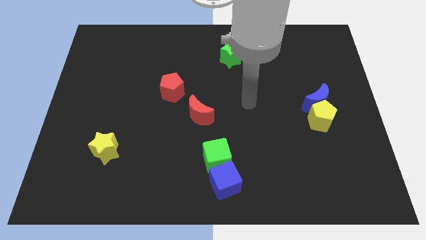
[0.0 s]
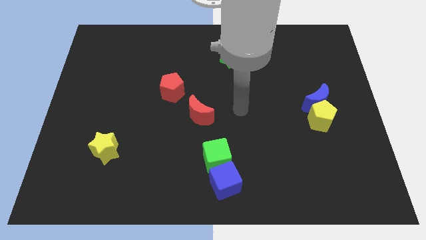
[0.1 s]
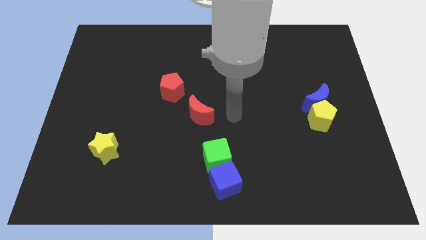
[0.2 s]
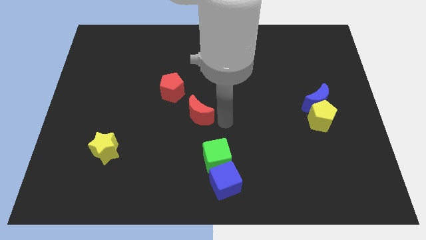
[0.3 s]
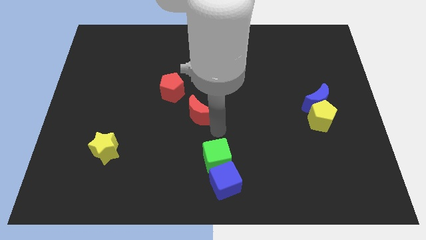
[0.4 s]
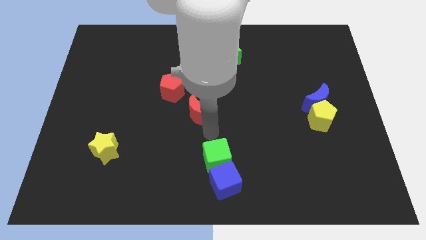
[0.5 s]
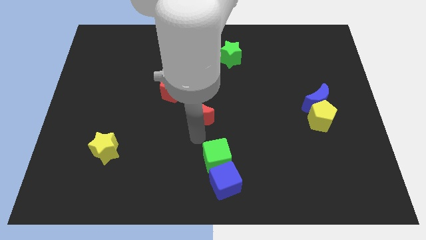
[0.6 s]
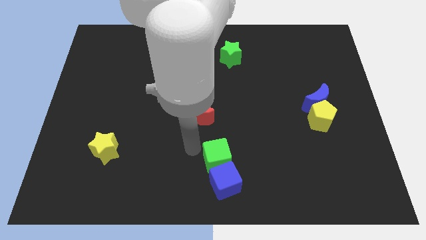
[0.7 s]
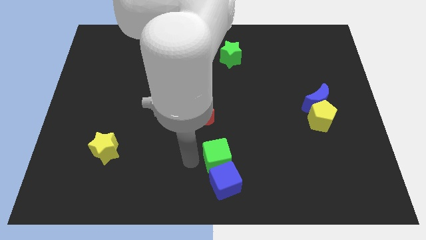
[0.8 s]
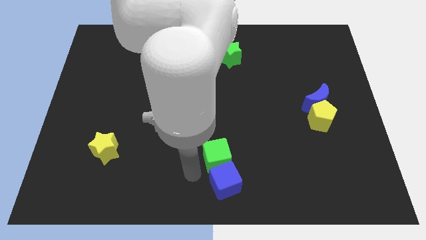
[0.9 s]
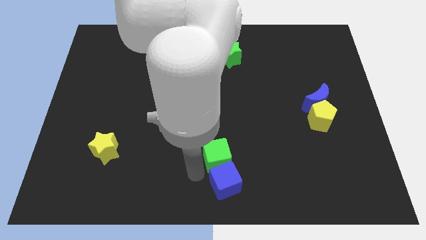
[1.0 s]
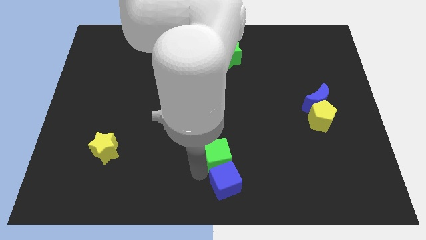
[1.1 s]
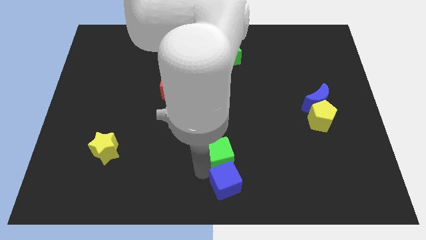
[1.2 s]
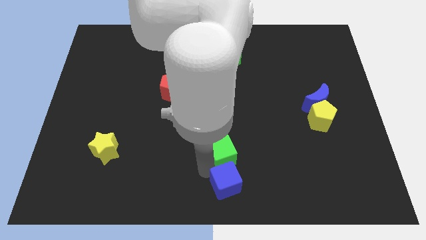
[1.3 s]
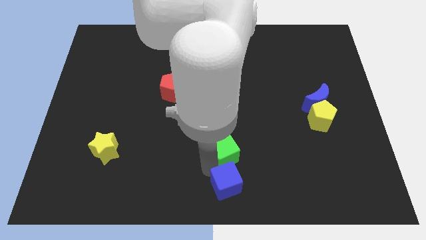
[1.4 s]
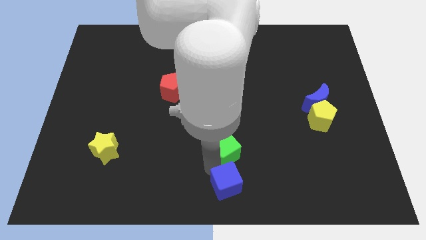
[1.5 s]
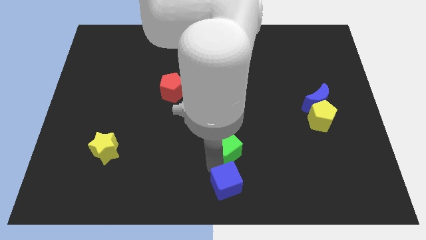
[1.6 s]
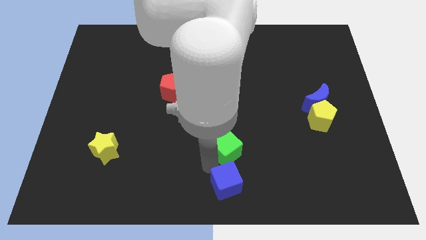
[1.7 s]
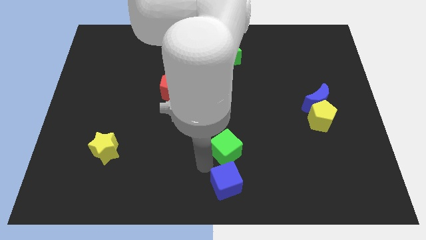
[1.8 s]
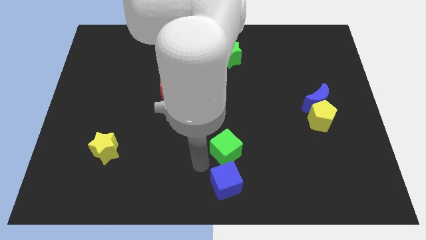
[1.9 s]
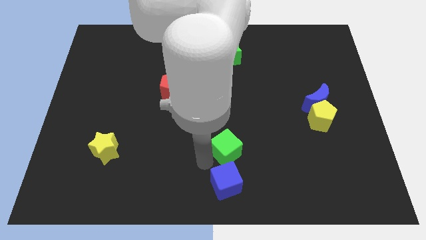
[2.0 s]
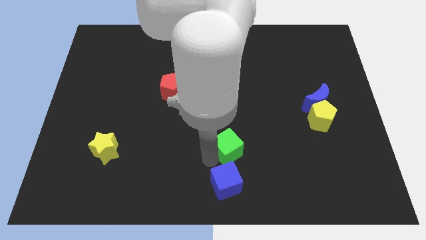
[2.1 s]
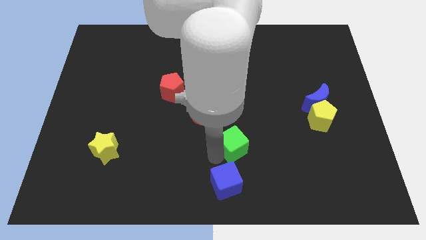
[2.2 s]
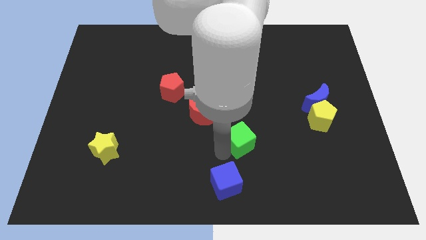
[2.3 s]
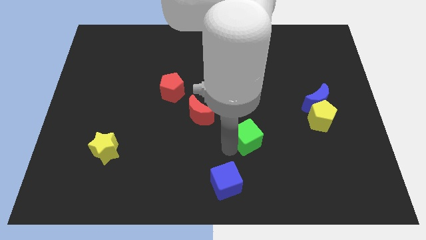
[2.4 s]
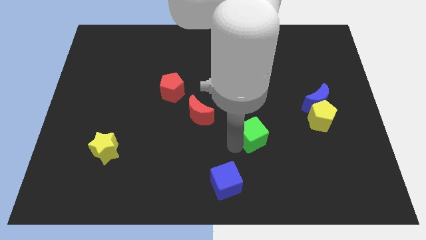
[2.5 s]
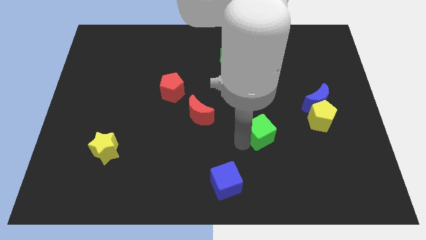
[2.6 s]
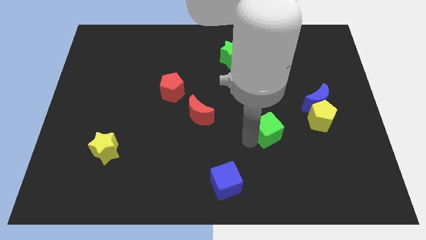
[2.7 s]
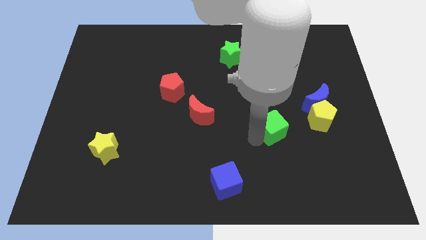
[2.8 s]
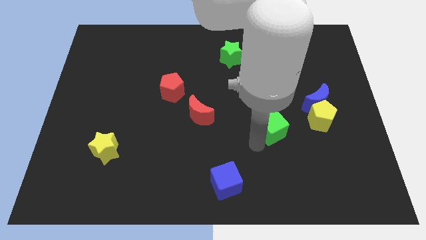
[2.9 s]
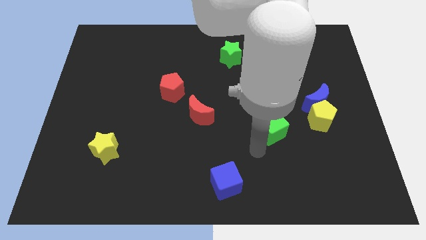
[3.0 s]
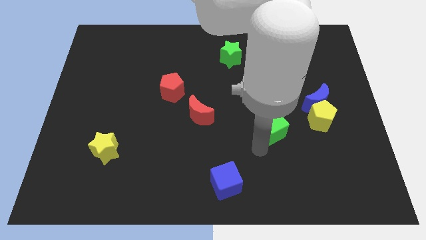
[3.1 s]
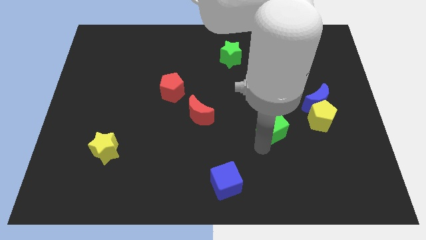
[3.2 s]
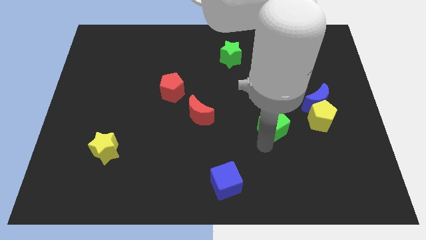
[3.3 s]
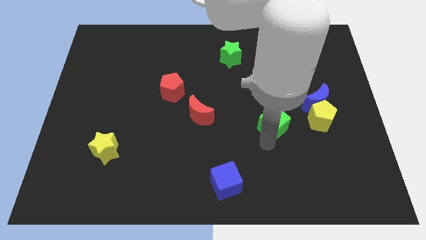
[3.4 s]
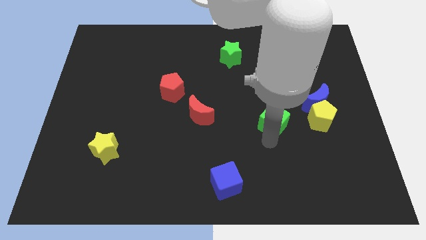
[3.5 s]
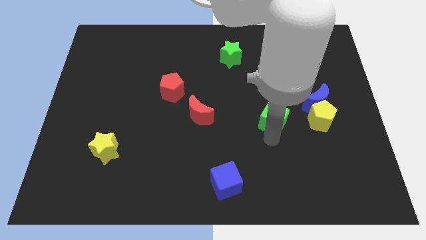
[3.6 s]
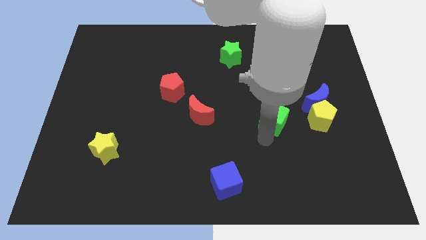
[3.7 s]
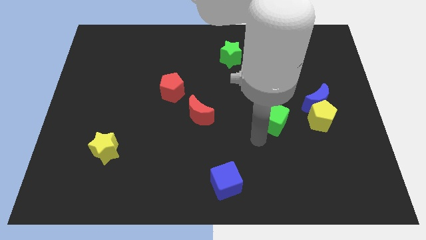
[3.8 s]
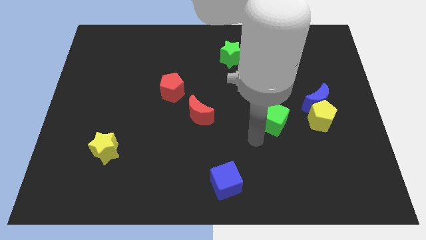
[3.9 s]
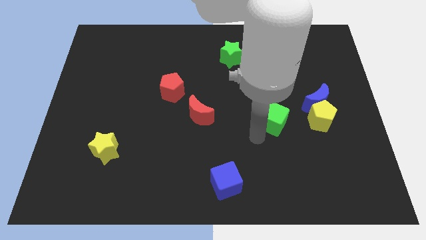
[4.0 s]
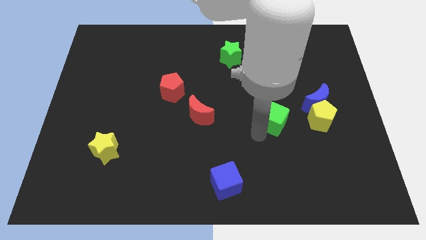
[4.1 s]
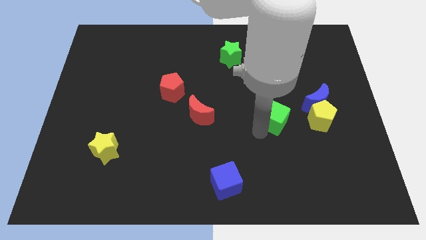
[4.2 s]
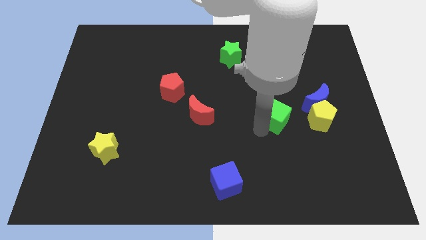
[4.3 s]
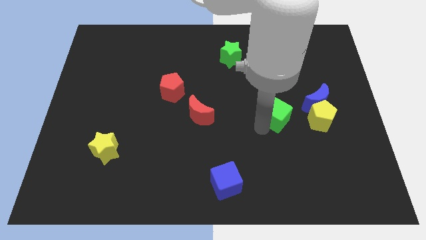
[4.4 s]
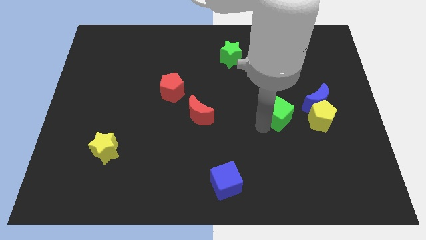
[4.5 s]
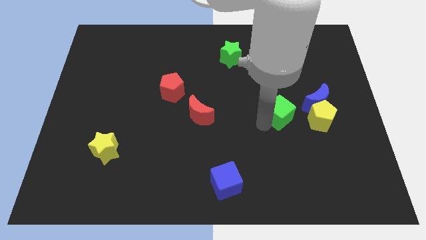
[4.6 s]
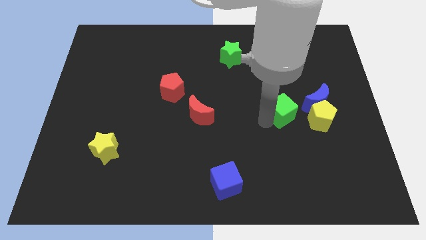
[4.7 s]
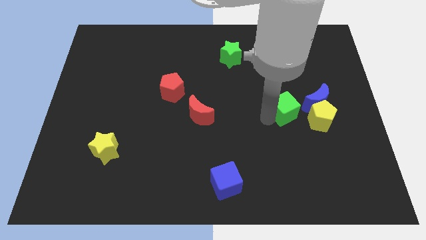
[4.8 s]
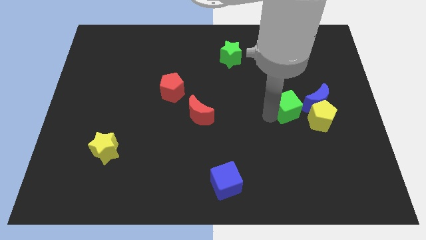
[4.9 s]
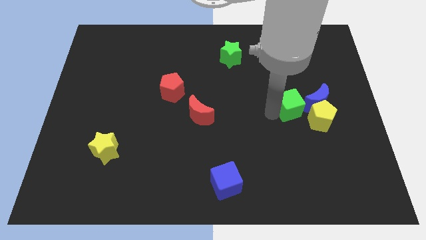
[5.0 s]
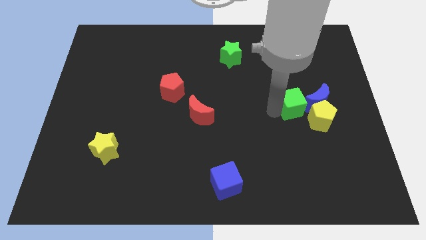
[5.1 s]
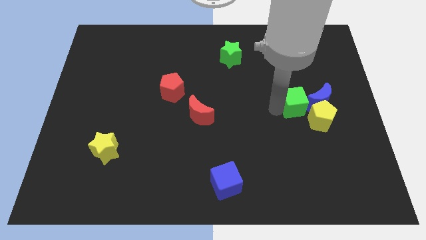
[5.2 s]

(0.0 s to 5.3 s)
move the green cube to the blue moon

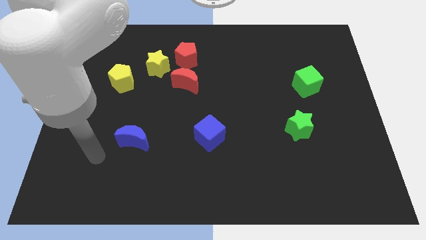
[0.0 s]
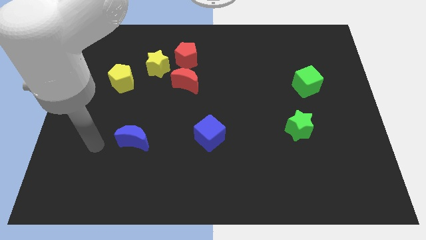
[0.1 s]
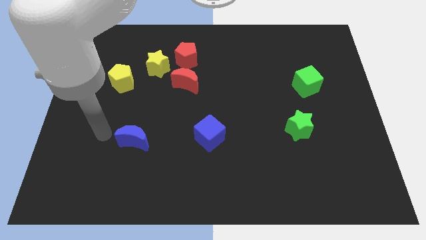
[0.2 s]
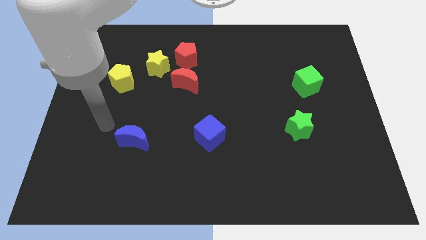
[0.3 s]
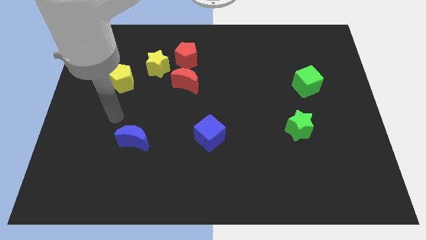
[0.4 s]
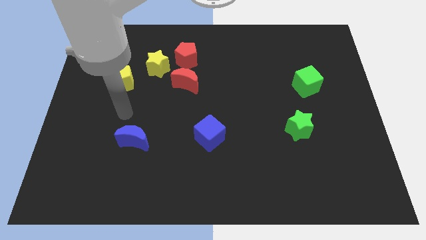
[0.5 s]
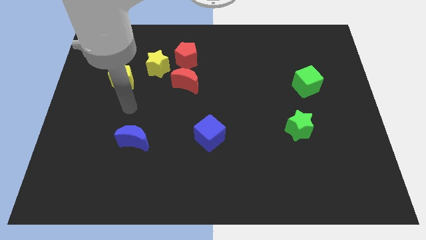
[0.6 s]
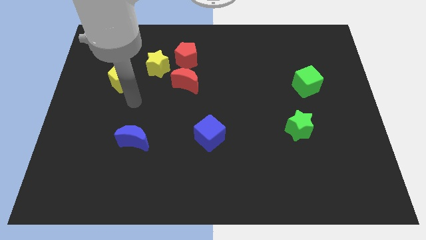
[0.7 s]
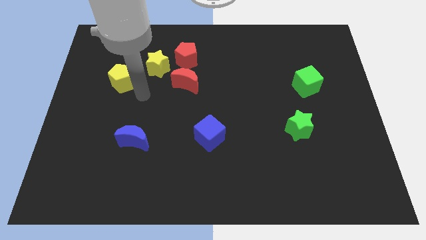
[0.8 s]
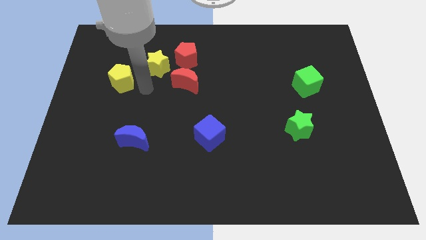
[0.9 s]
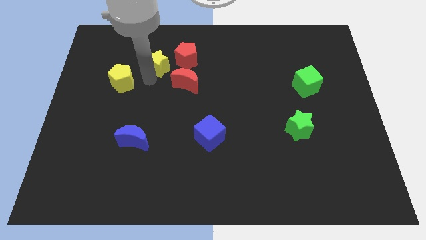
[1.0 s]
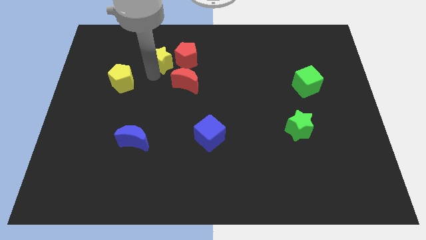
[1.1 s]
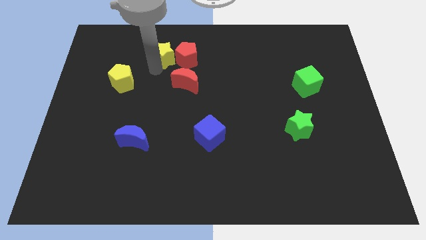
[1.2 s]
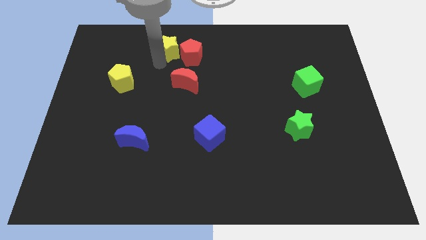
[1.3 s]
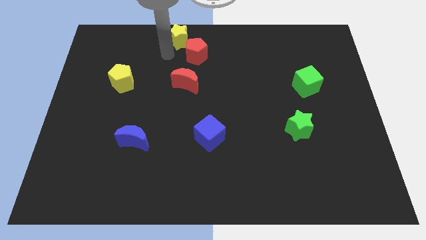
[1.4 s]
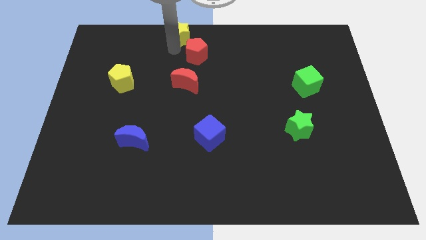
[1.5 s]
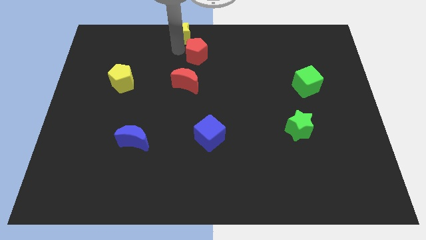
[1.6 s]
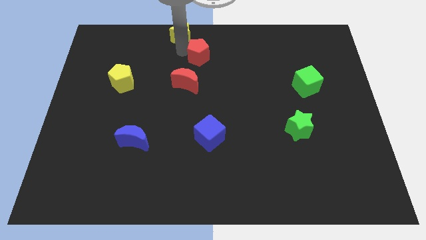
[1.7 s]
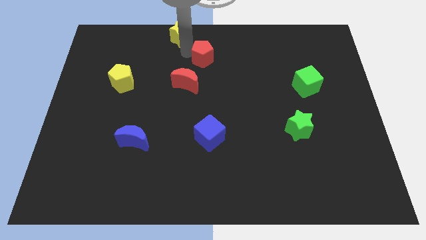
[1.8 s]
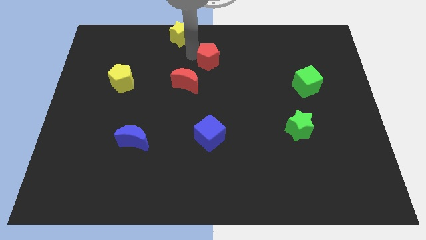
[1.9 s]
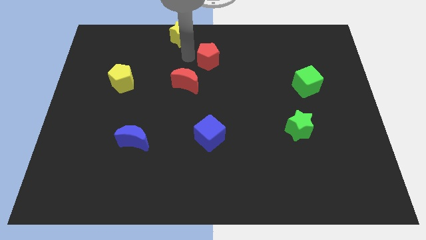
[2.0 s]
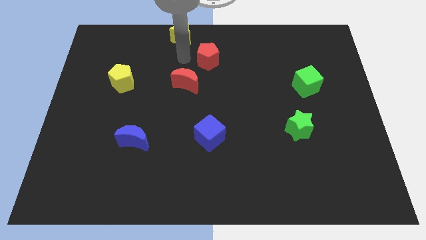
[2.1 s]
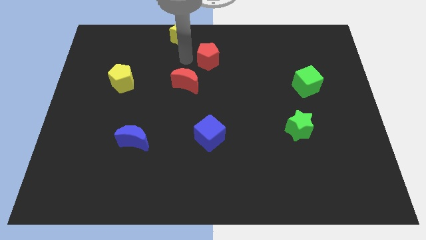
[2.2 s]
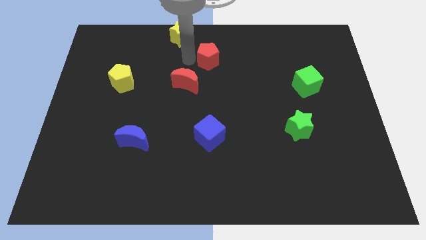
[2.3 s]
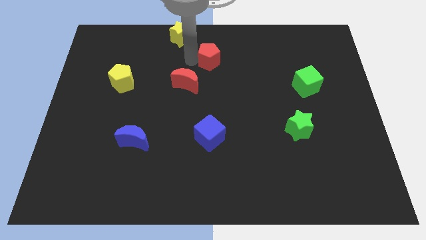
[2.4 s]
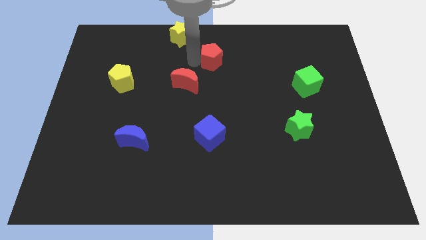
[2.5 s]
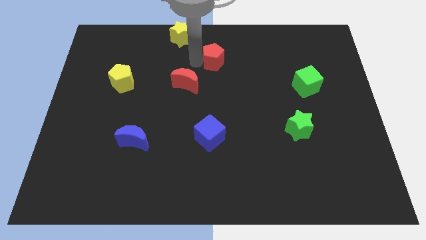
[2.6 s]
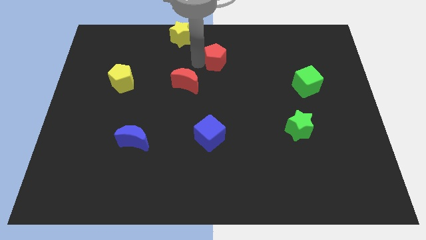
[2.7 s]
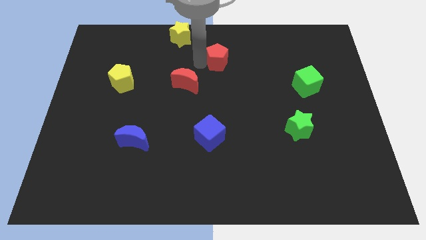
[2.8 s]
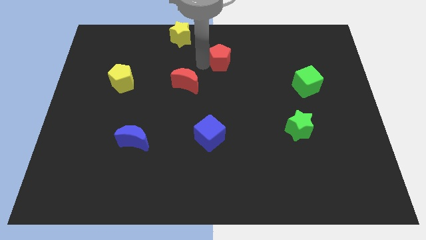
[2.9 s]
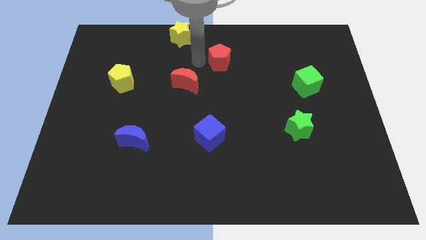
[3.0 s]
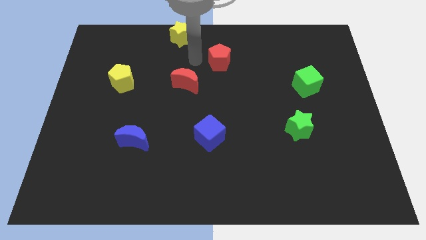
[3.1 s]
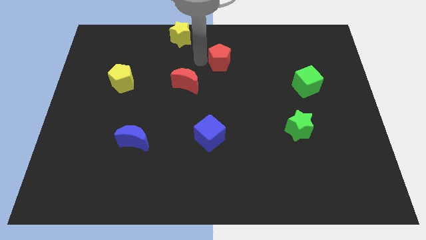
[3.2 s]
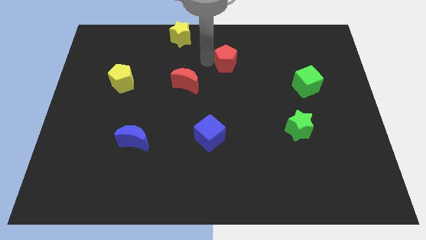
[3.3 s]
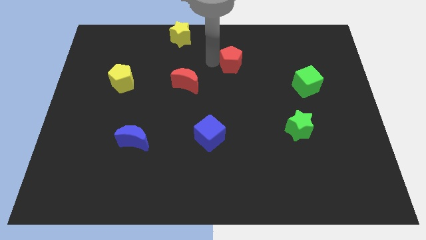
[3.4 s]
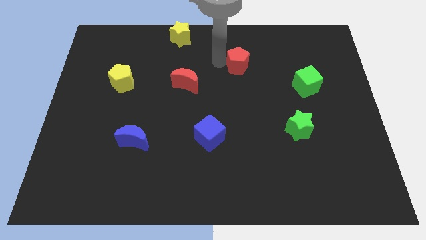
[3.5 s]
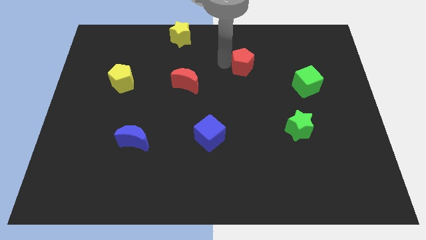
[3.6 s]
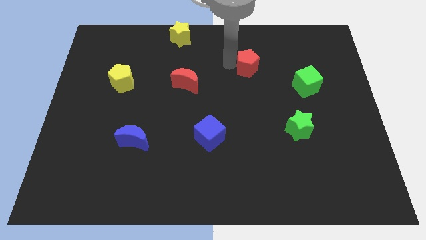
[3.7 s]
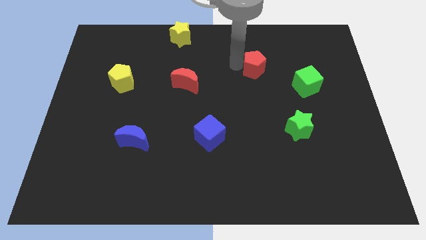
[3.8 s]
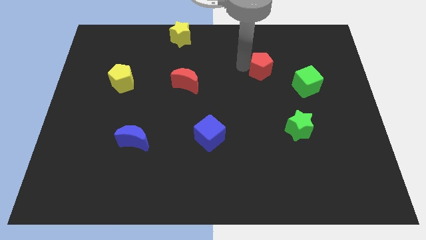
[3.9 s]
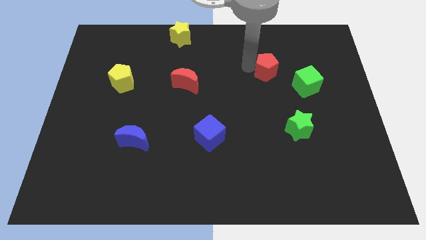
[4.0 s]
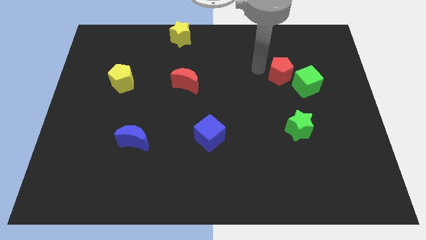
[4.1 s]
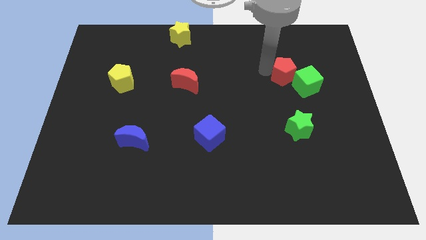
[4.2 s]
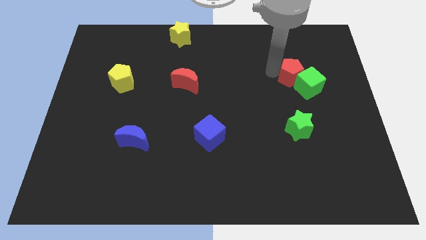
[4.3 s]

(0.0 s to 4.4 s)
slide the red pentagon close to the green cube
